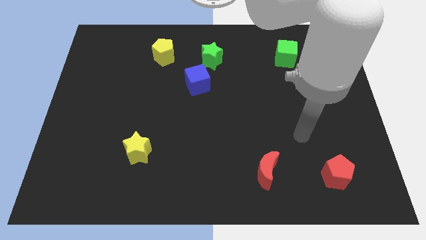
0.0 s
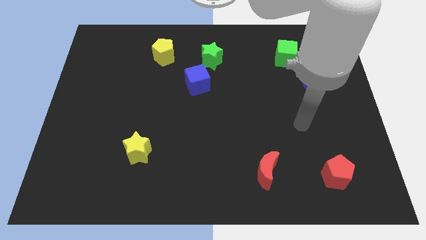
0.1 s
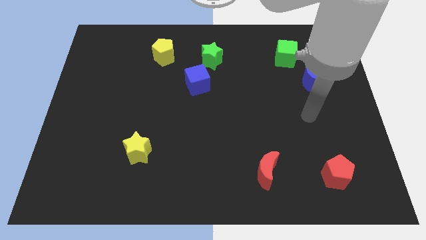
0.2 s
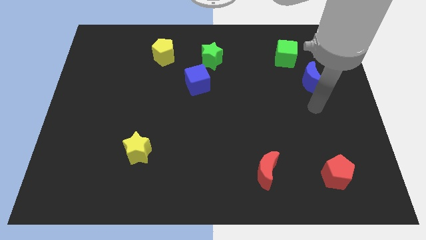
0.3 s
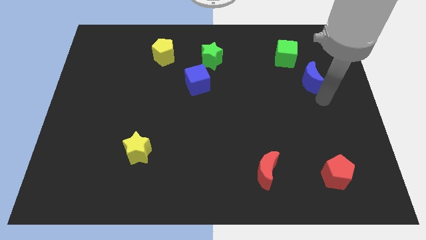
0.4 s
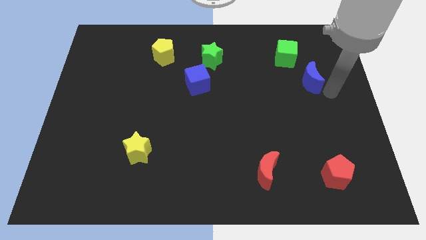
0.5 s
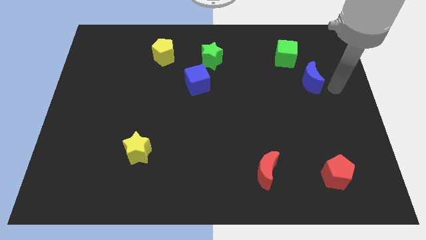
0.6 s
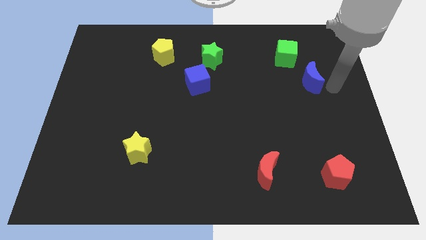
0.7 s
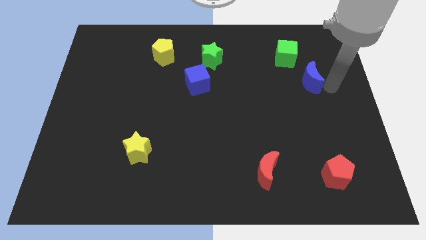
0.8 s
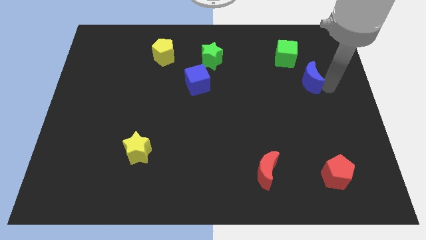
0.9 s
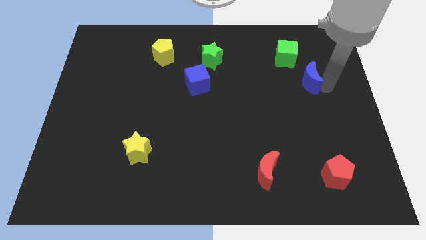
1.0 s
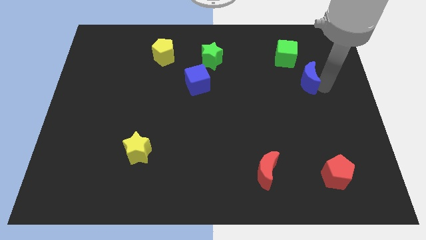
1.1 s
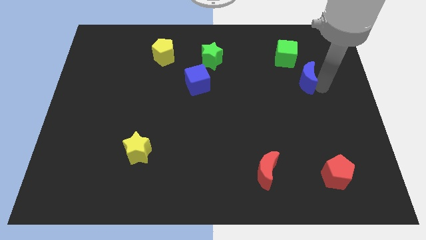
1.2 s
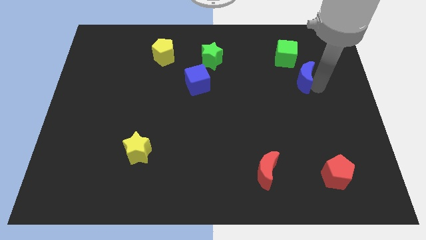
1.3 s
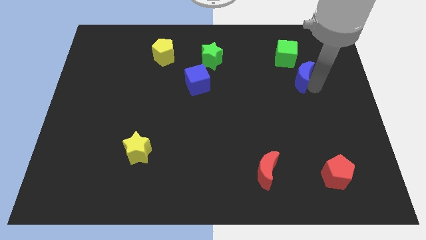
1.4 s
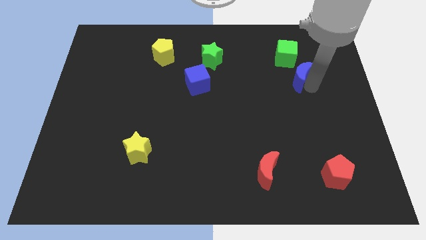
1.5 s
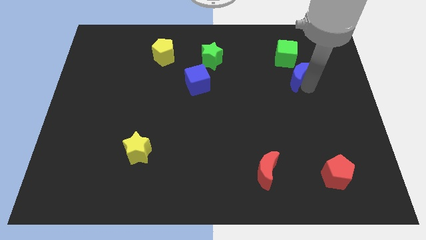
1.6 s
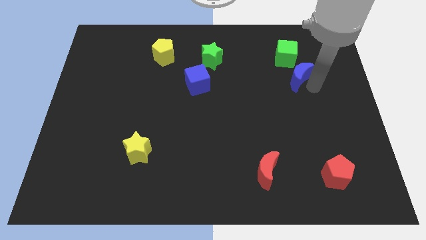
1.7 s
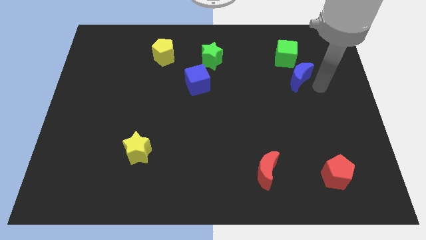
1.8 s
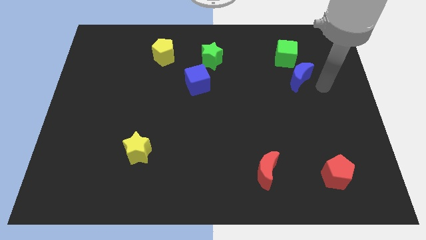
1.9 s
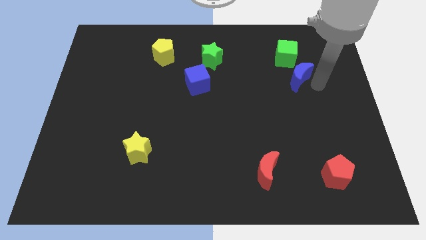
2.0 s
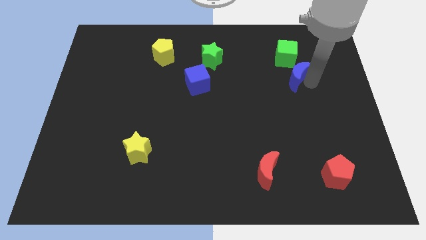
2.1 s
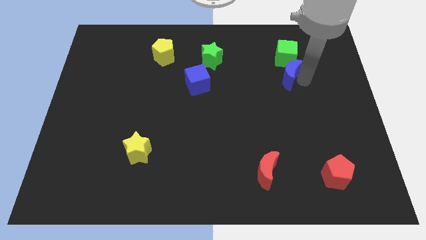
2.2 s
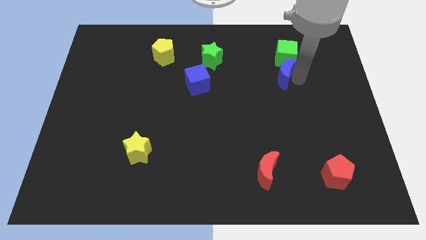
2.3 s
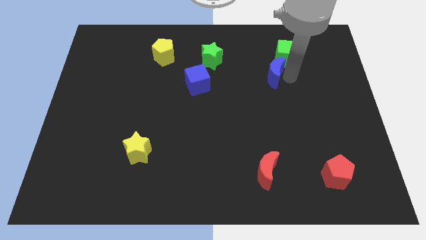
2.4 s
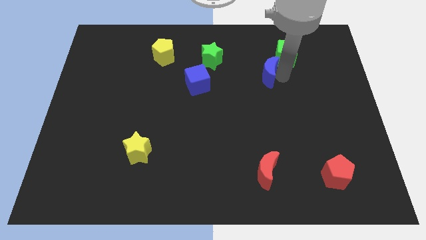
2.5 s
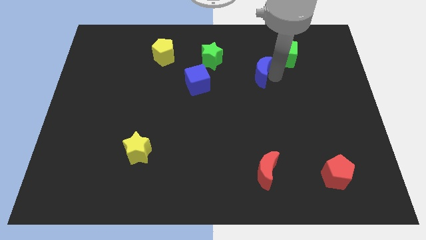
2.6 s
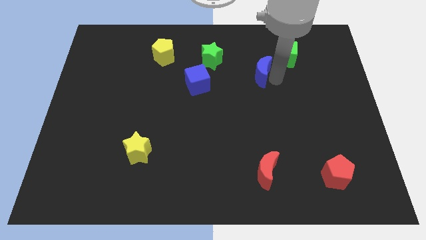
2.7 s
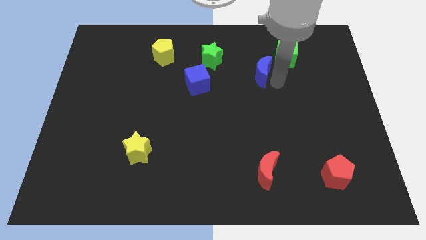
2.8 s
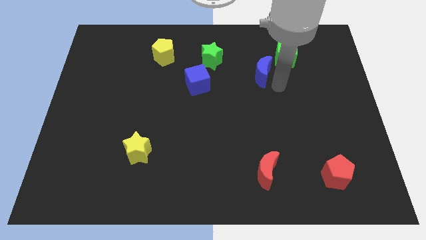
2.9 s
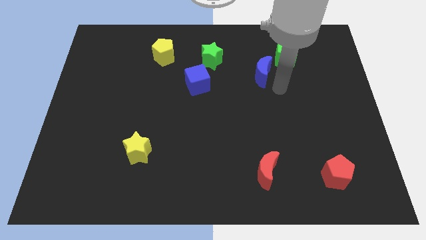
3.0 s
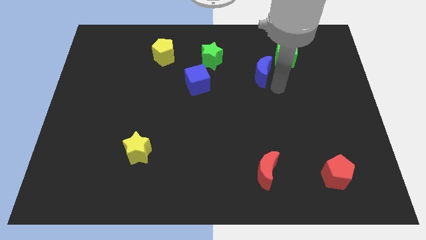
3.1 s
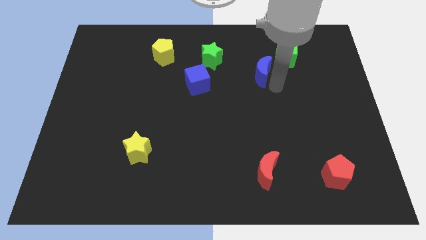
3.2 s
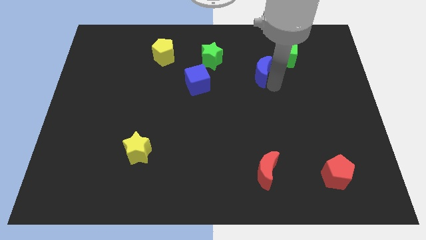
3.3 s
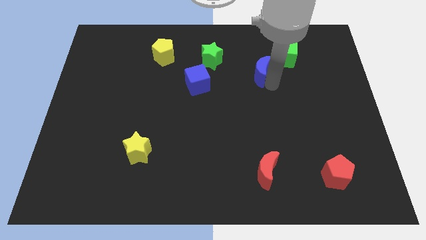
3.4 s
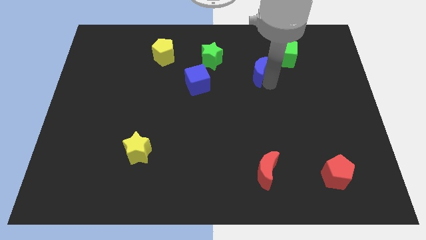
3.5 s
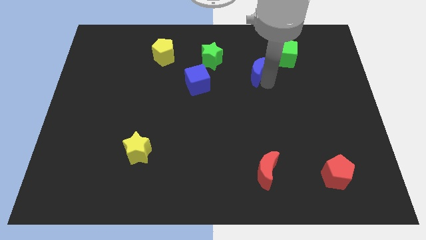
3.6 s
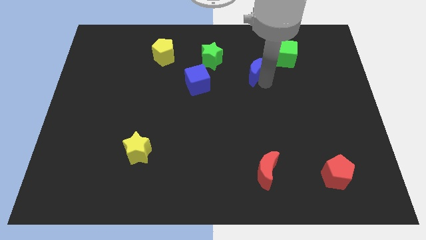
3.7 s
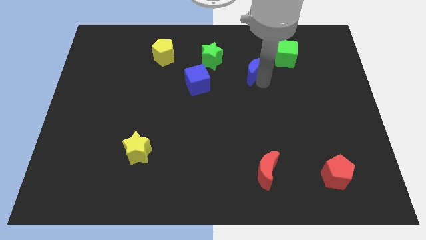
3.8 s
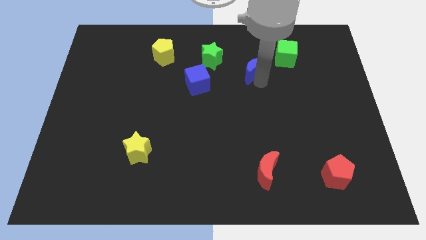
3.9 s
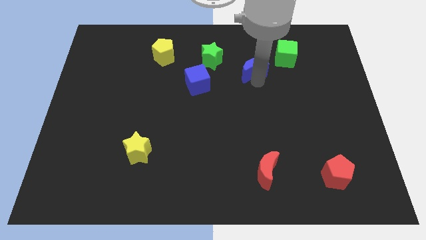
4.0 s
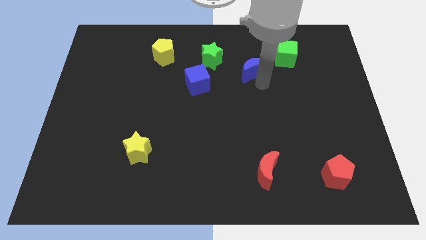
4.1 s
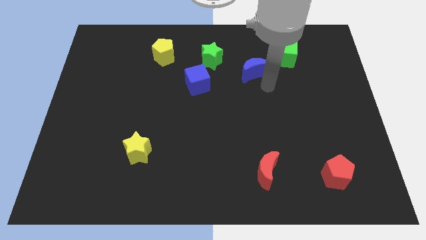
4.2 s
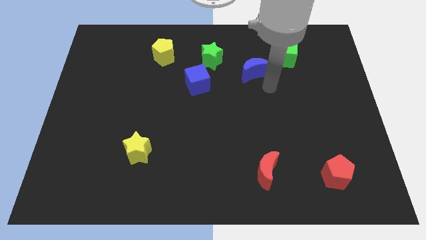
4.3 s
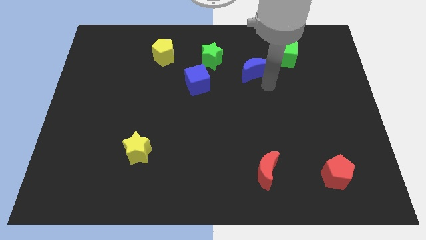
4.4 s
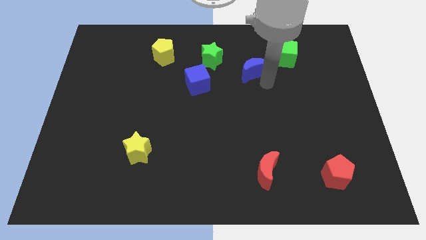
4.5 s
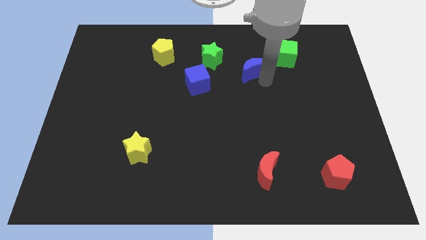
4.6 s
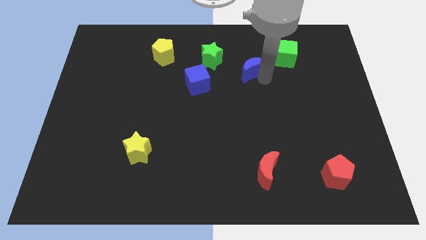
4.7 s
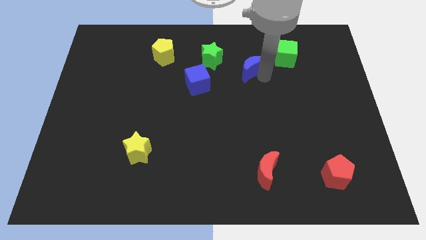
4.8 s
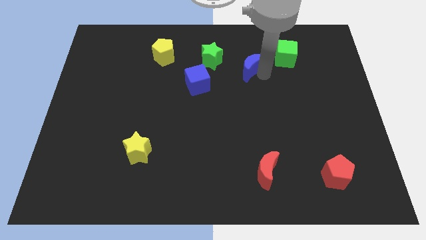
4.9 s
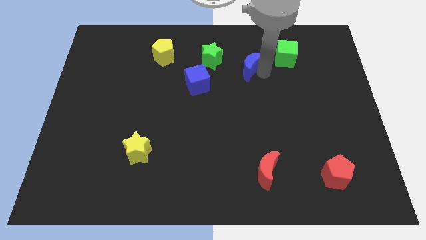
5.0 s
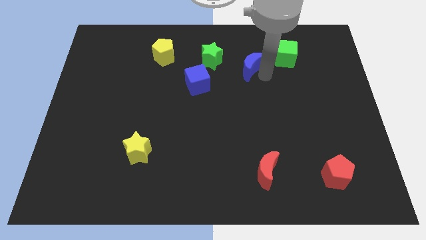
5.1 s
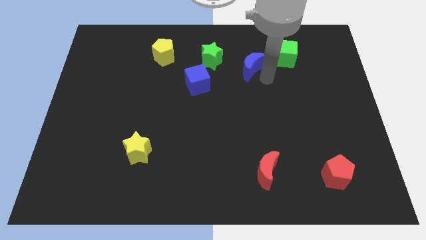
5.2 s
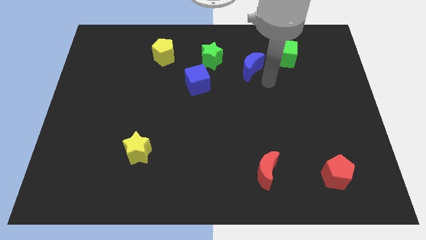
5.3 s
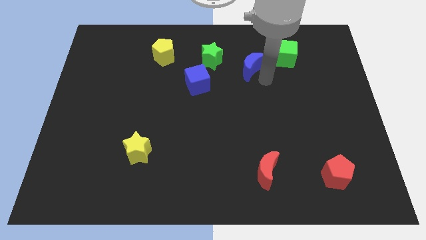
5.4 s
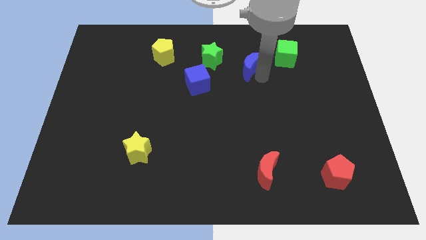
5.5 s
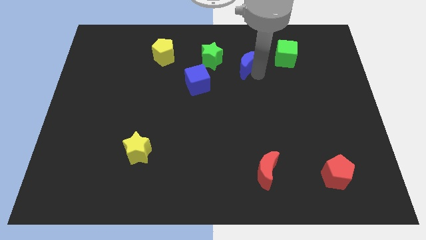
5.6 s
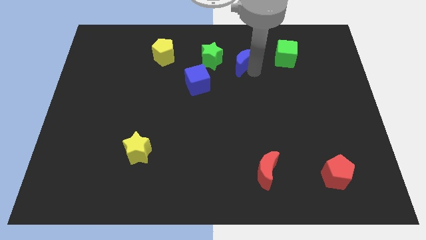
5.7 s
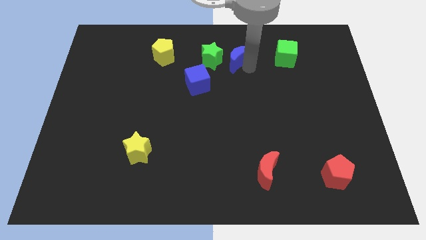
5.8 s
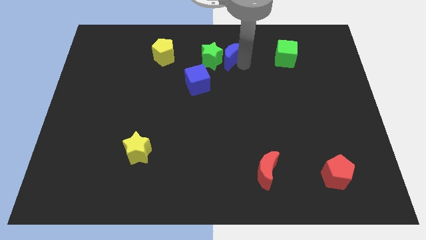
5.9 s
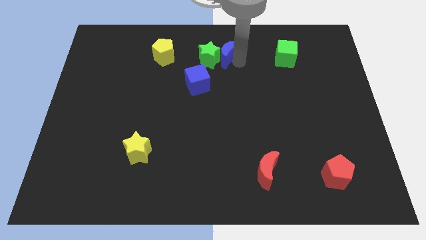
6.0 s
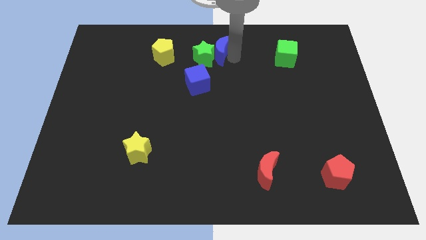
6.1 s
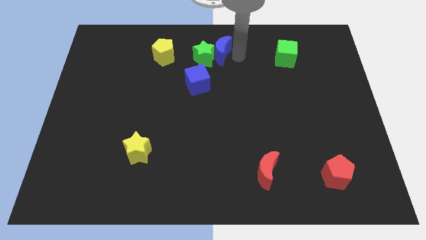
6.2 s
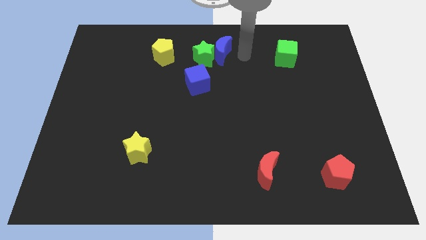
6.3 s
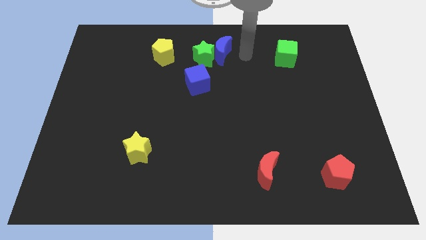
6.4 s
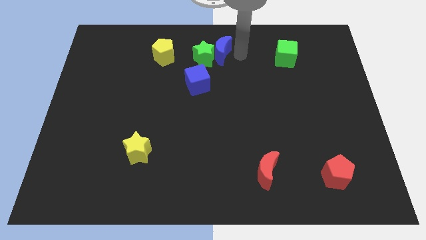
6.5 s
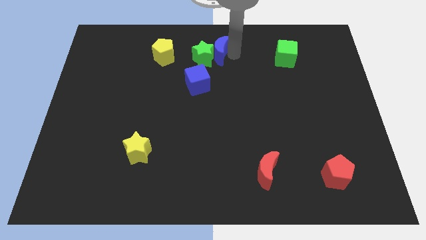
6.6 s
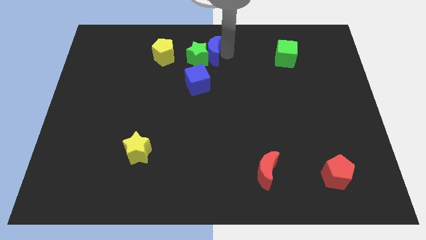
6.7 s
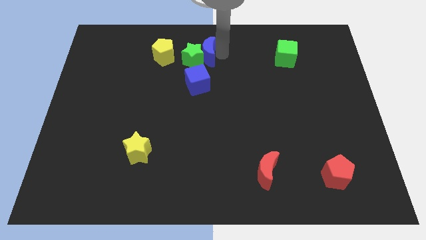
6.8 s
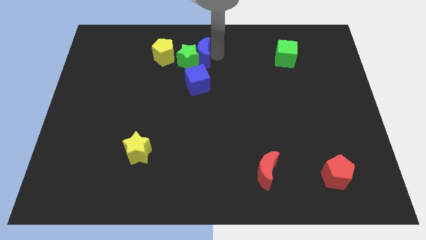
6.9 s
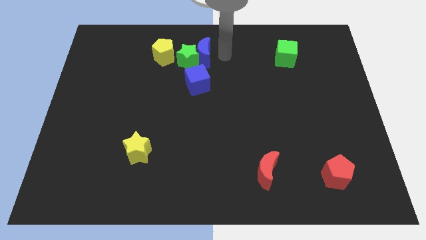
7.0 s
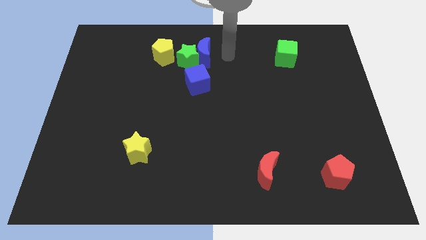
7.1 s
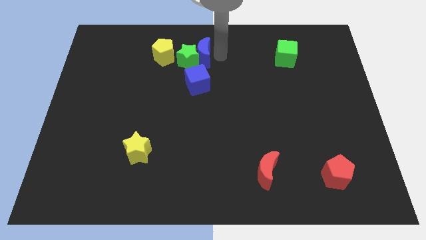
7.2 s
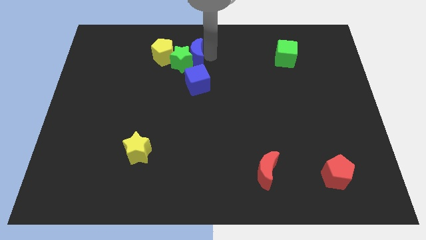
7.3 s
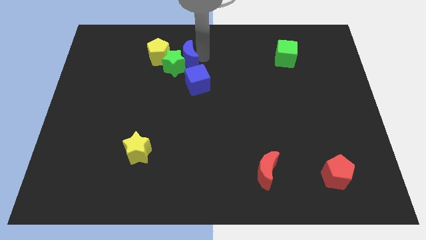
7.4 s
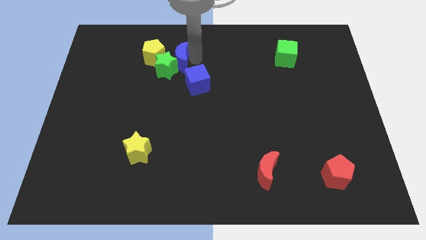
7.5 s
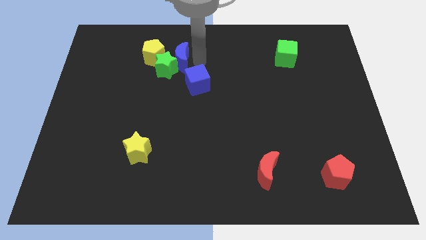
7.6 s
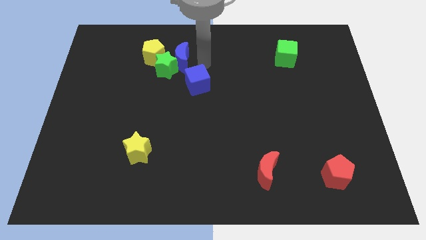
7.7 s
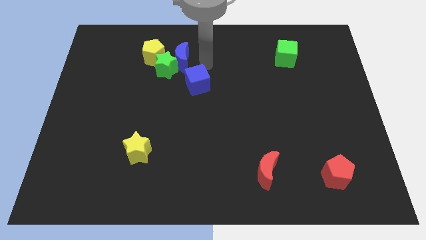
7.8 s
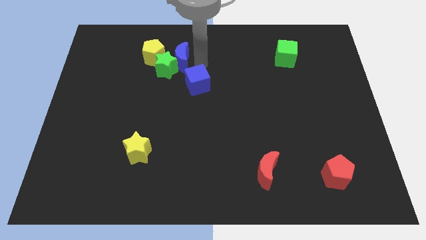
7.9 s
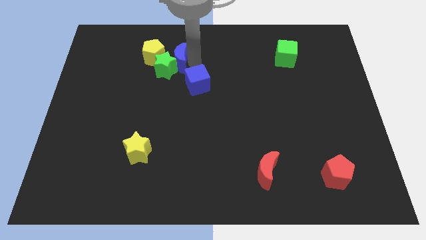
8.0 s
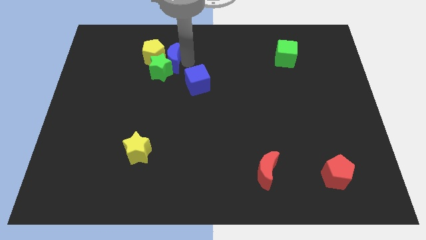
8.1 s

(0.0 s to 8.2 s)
push the blue moon towards the yellow pentagon
